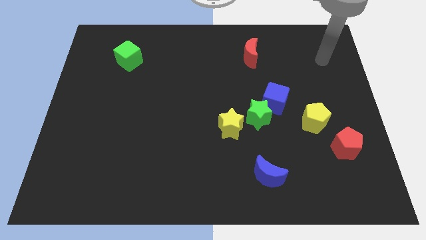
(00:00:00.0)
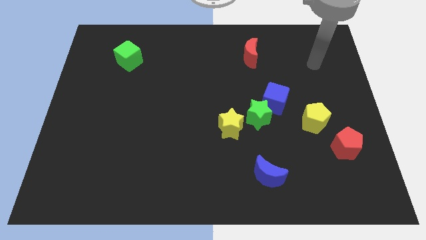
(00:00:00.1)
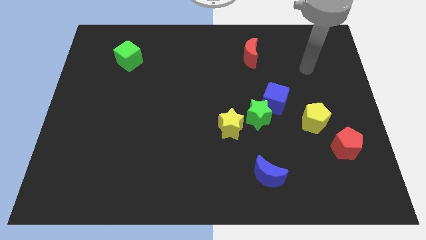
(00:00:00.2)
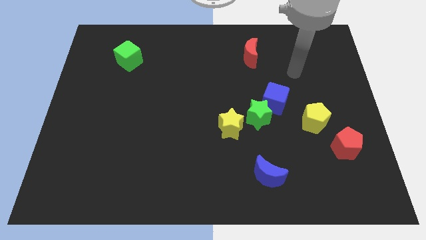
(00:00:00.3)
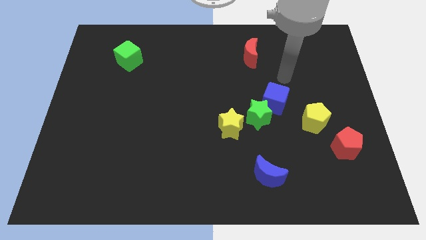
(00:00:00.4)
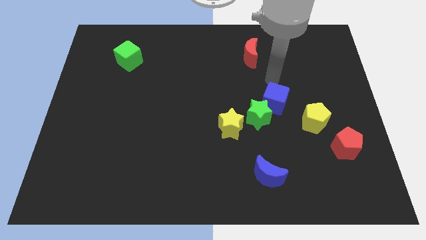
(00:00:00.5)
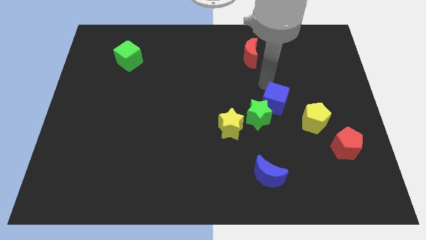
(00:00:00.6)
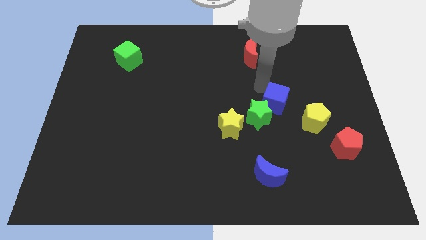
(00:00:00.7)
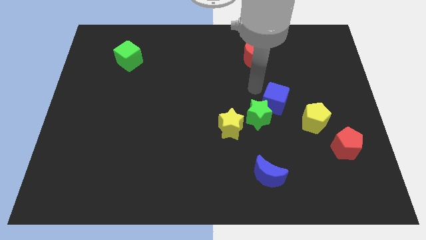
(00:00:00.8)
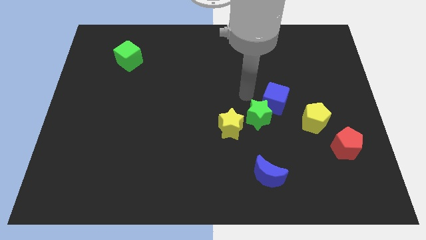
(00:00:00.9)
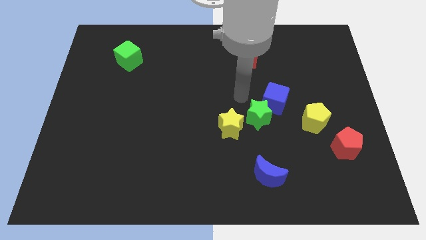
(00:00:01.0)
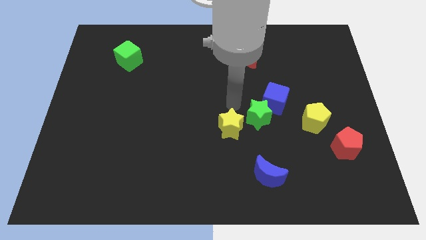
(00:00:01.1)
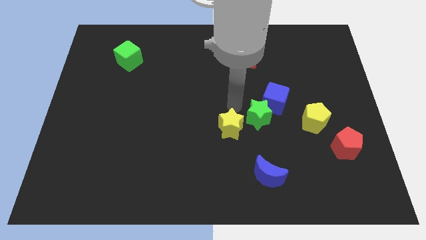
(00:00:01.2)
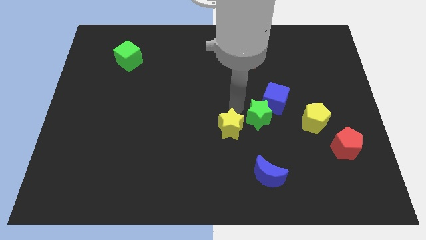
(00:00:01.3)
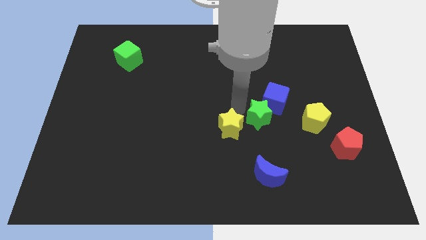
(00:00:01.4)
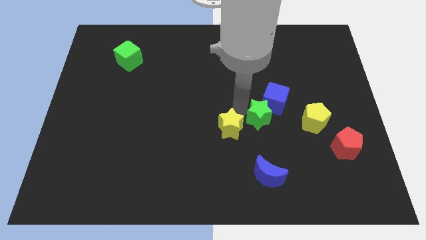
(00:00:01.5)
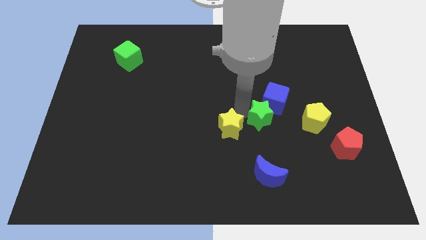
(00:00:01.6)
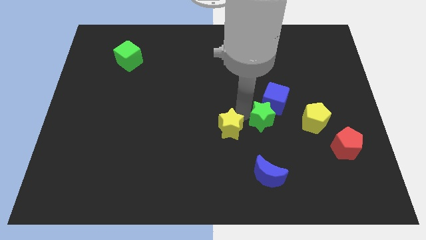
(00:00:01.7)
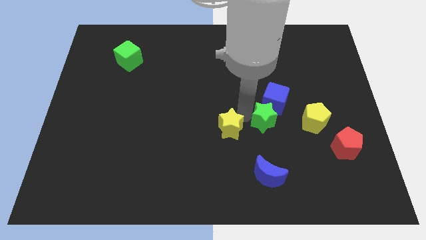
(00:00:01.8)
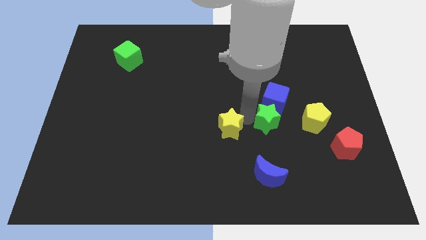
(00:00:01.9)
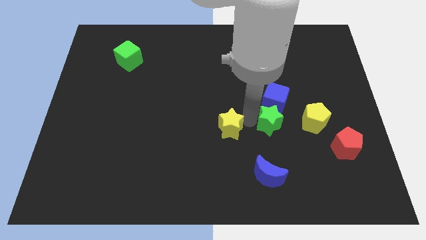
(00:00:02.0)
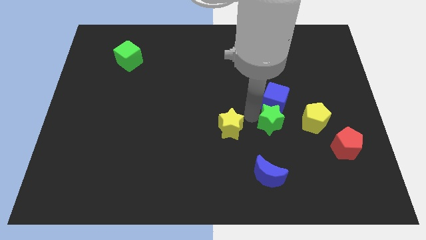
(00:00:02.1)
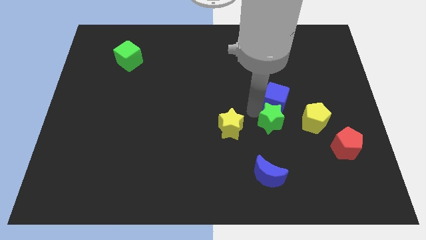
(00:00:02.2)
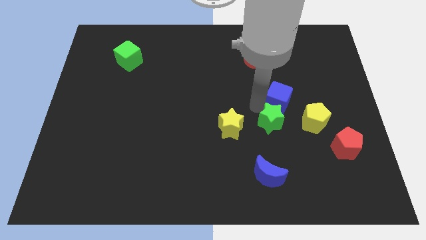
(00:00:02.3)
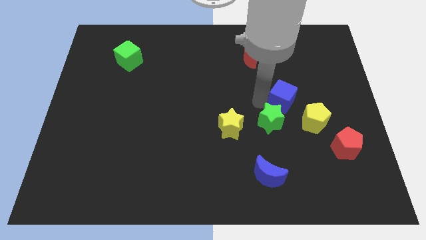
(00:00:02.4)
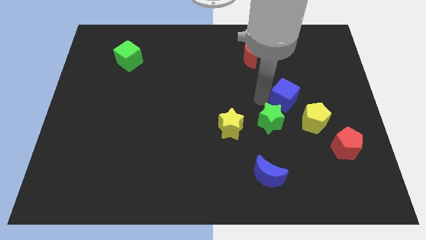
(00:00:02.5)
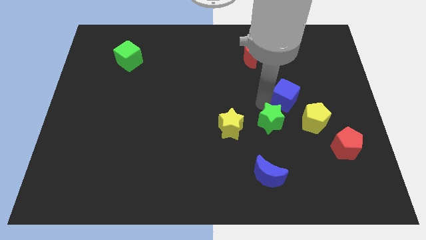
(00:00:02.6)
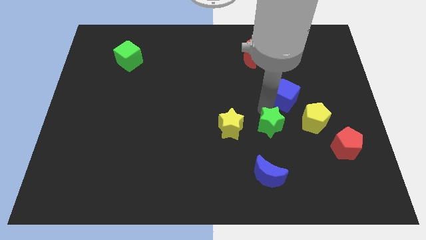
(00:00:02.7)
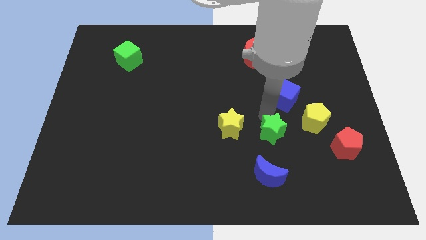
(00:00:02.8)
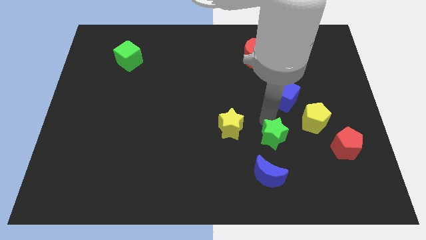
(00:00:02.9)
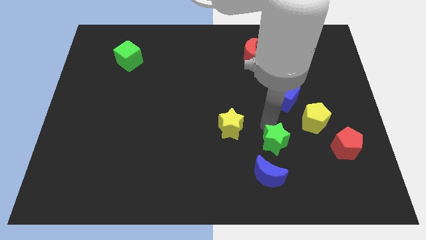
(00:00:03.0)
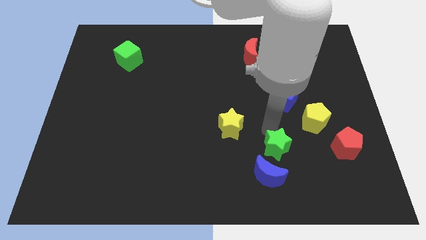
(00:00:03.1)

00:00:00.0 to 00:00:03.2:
separate the green star from the blue cube and yellow star

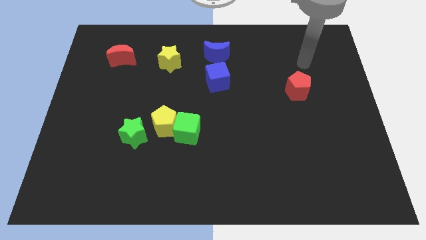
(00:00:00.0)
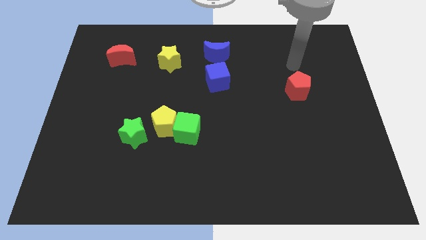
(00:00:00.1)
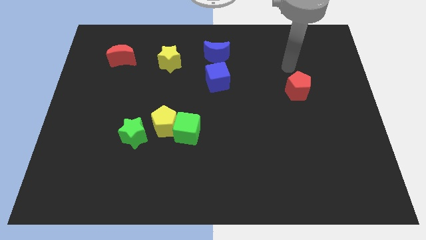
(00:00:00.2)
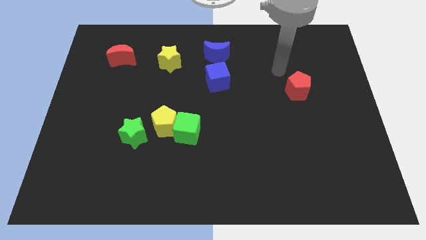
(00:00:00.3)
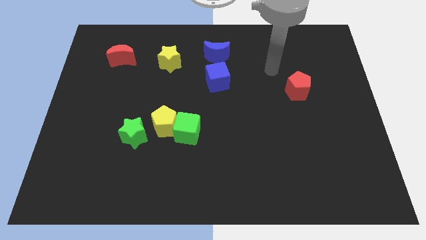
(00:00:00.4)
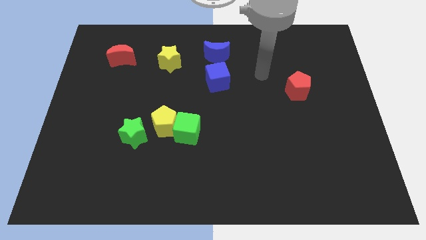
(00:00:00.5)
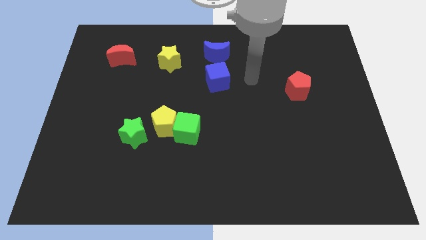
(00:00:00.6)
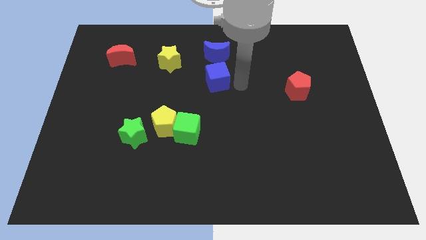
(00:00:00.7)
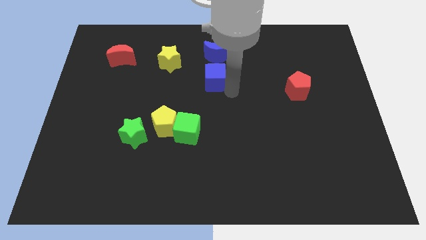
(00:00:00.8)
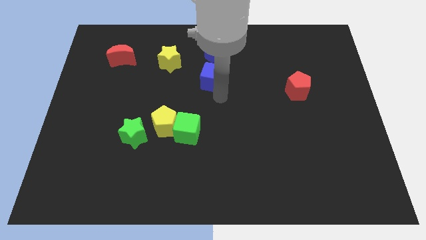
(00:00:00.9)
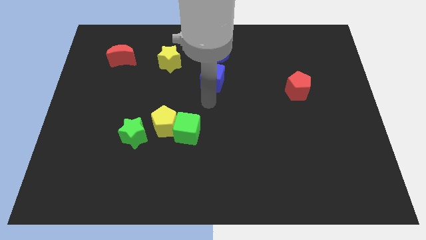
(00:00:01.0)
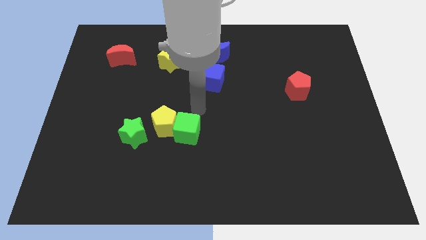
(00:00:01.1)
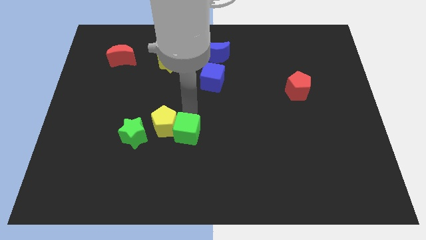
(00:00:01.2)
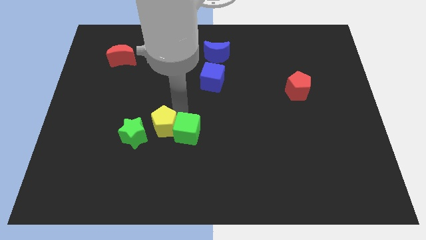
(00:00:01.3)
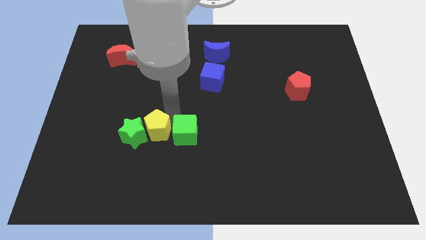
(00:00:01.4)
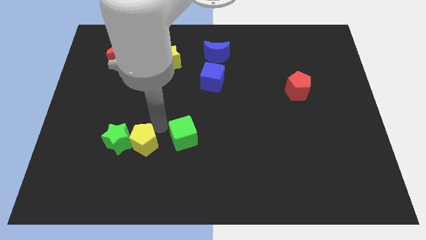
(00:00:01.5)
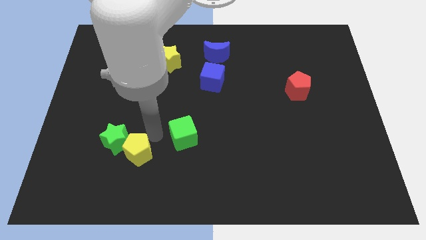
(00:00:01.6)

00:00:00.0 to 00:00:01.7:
separate the green cube from the yellow pentagon

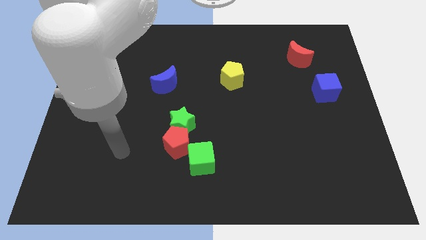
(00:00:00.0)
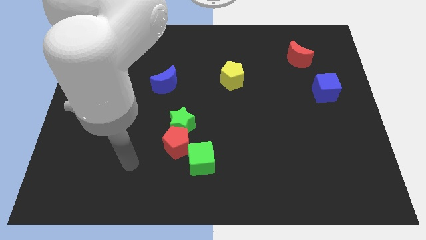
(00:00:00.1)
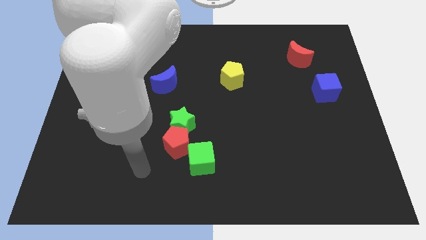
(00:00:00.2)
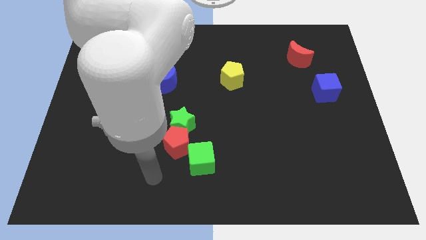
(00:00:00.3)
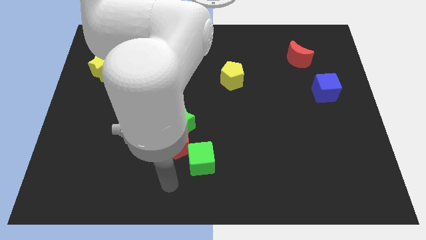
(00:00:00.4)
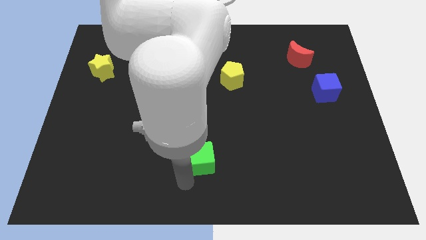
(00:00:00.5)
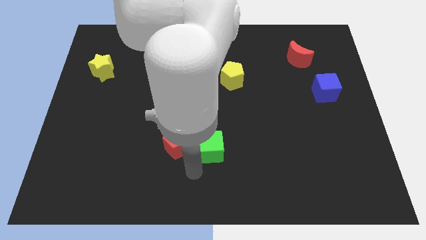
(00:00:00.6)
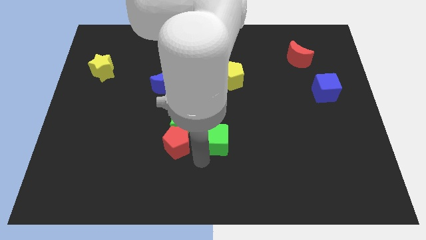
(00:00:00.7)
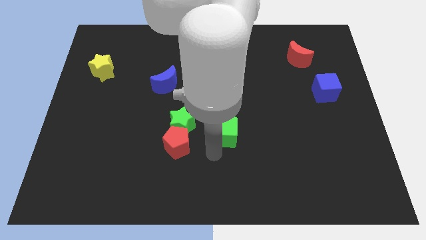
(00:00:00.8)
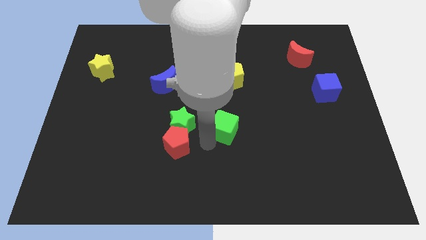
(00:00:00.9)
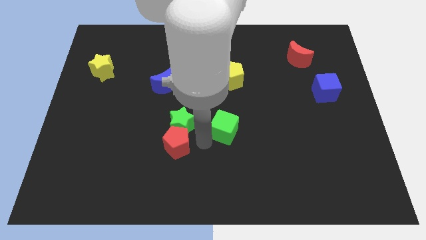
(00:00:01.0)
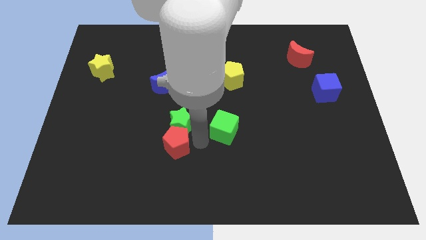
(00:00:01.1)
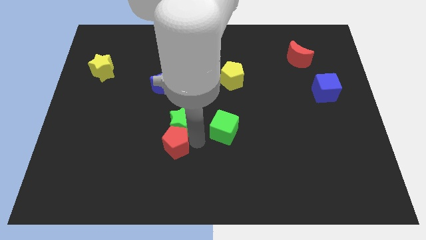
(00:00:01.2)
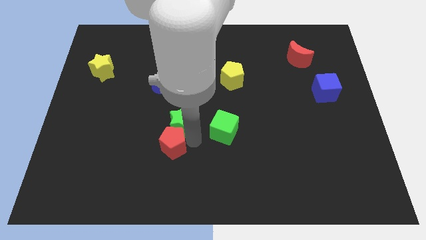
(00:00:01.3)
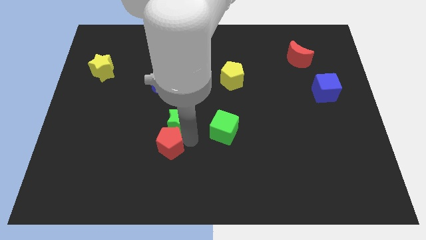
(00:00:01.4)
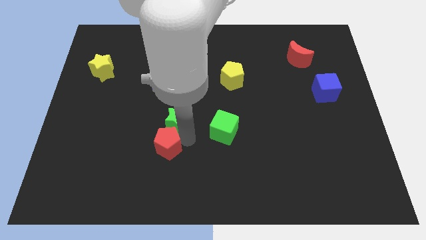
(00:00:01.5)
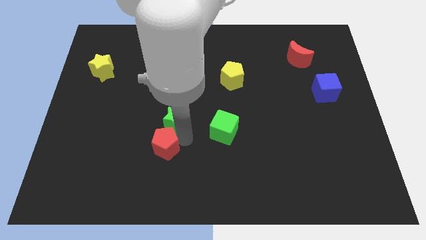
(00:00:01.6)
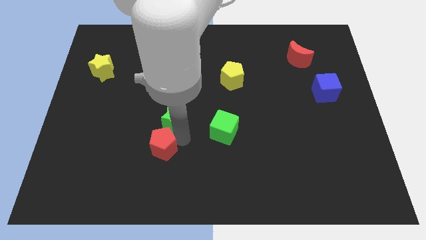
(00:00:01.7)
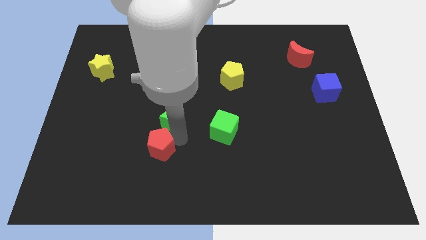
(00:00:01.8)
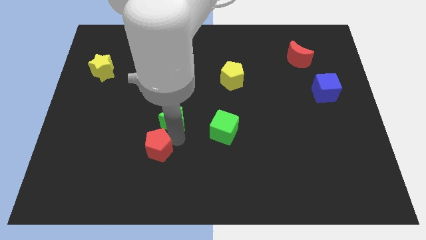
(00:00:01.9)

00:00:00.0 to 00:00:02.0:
move the red pentagon away from the green star and green cube

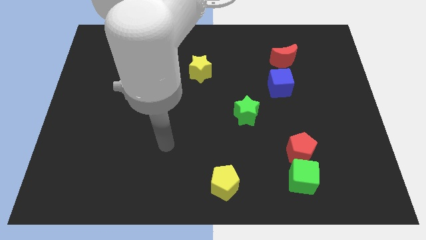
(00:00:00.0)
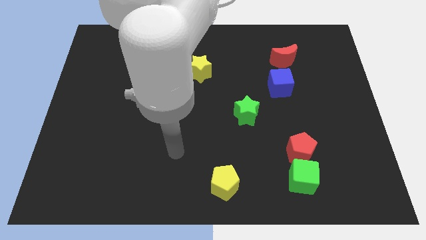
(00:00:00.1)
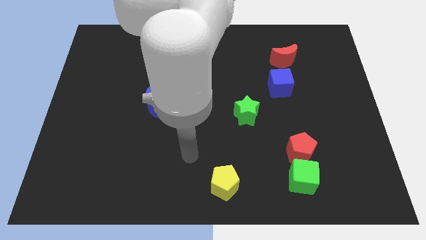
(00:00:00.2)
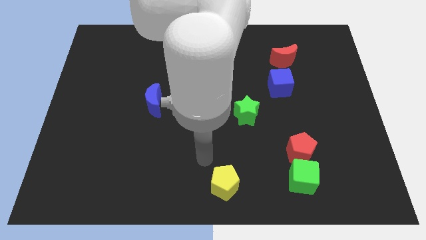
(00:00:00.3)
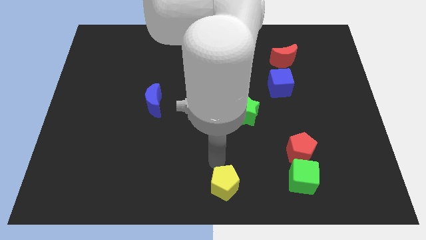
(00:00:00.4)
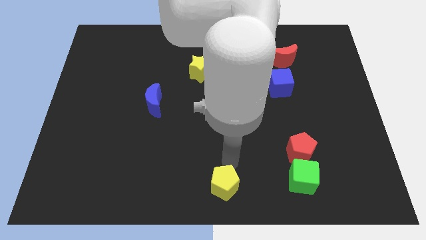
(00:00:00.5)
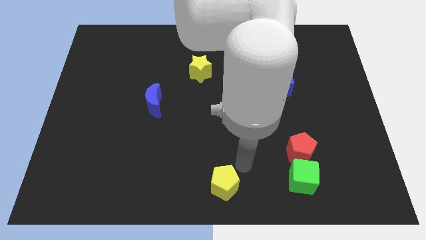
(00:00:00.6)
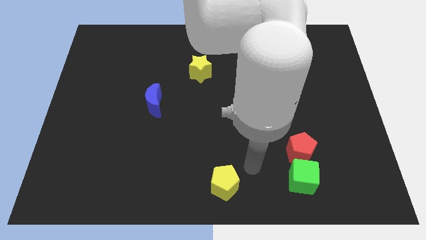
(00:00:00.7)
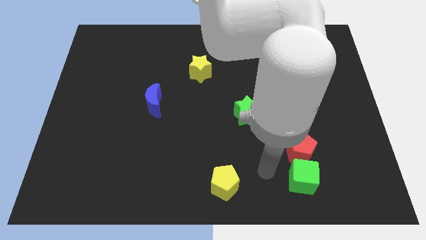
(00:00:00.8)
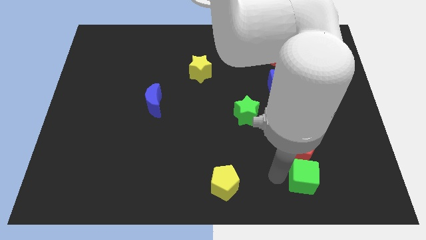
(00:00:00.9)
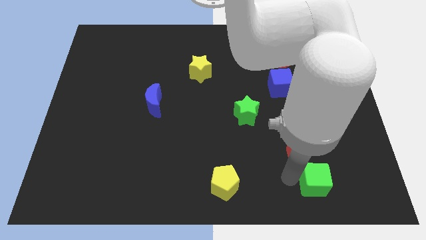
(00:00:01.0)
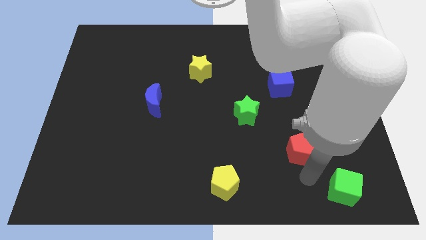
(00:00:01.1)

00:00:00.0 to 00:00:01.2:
pull the red pentagon apart from the green cube

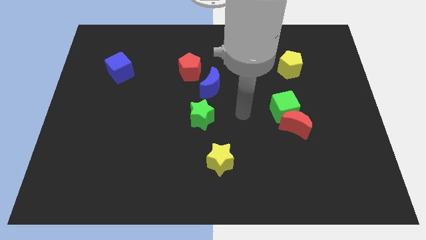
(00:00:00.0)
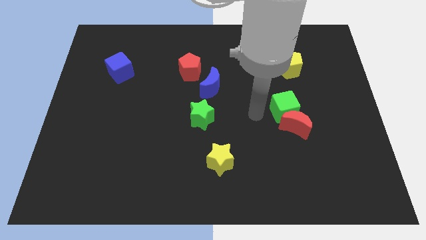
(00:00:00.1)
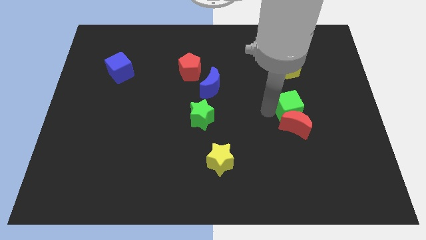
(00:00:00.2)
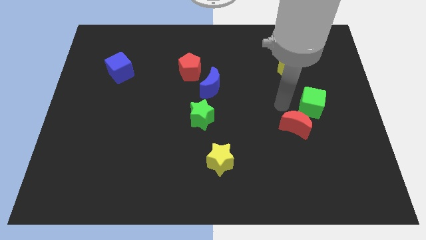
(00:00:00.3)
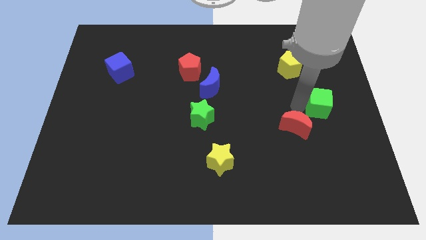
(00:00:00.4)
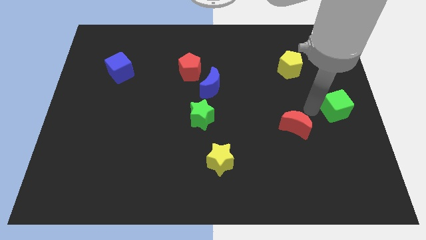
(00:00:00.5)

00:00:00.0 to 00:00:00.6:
separate the red moon from the green cube

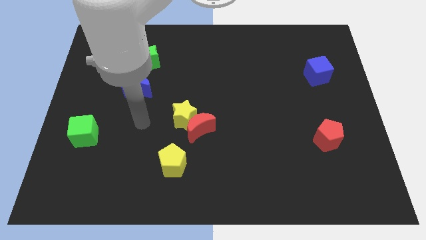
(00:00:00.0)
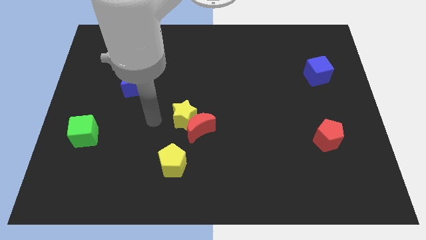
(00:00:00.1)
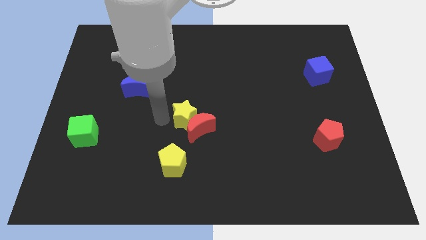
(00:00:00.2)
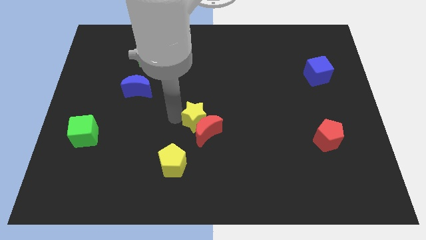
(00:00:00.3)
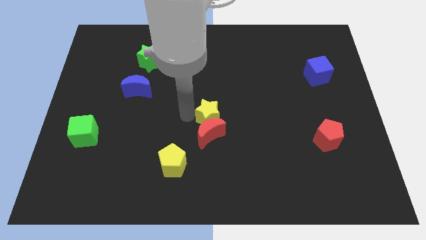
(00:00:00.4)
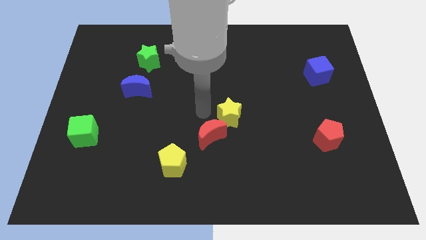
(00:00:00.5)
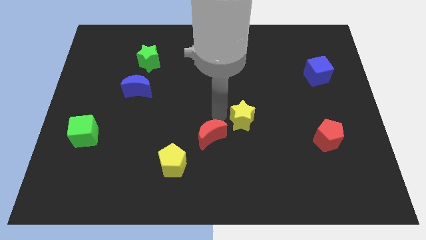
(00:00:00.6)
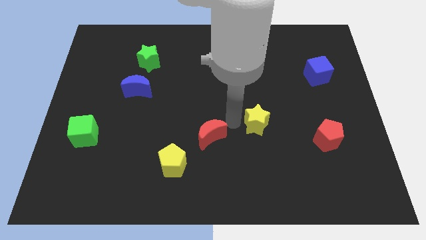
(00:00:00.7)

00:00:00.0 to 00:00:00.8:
pull the red moon apart from the yellow star
